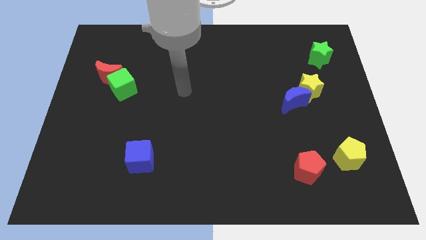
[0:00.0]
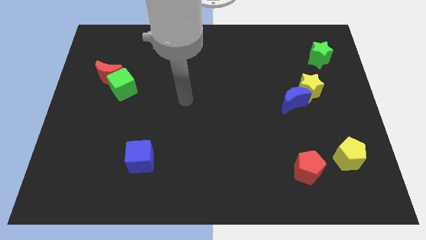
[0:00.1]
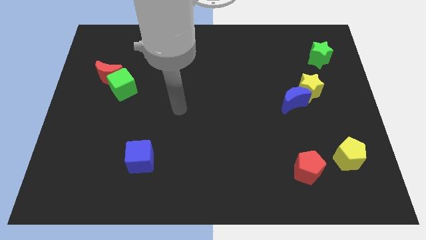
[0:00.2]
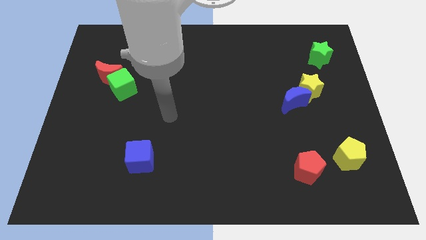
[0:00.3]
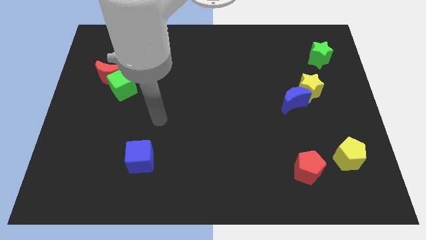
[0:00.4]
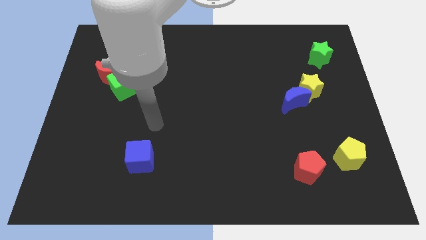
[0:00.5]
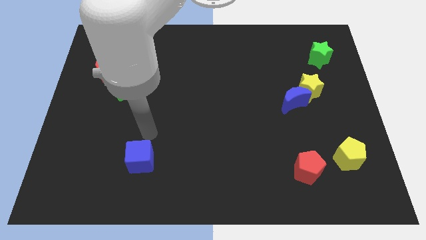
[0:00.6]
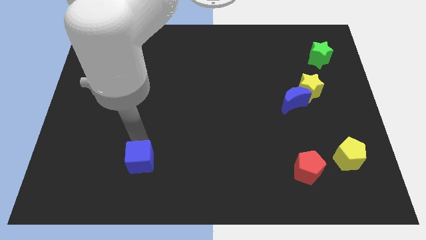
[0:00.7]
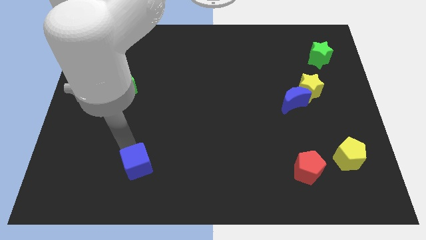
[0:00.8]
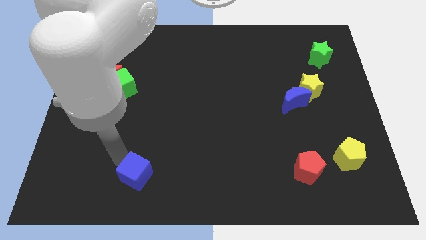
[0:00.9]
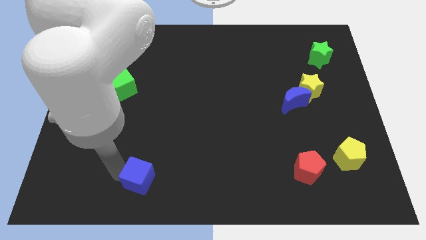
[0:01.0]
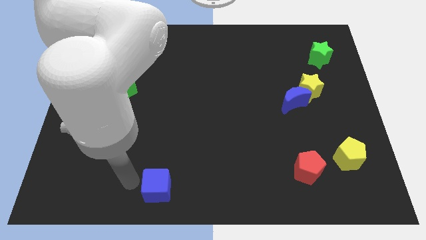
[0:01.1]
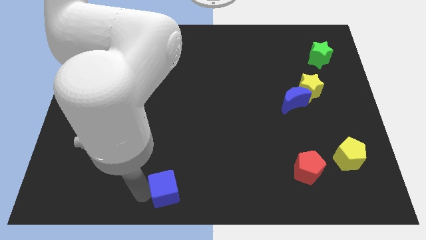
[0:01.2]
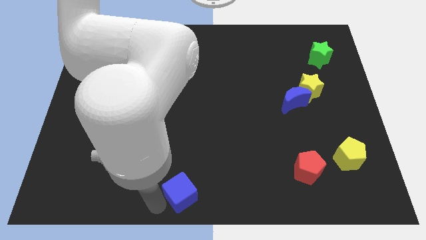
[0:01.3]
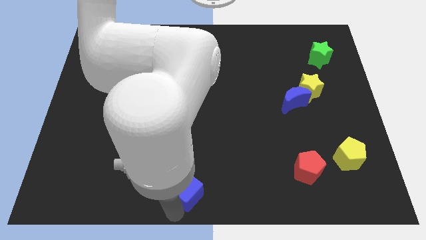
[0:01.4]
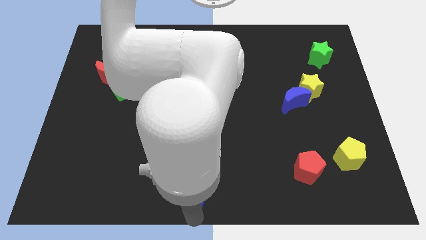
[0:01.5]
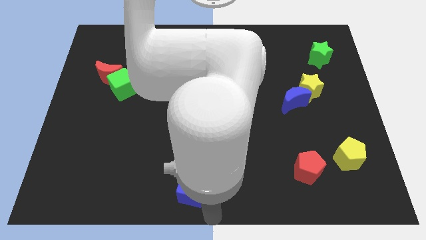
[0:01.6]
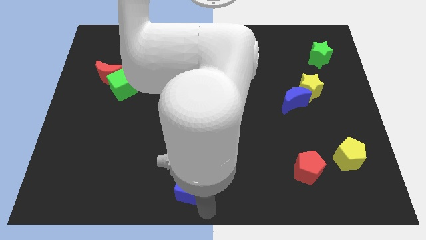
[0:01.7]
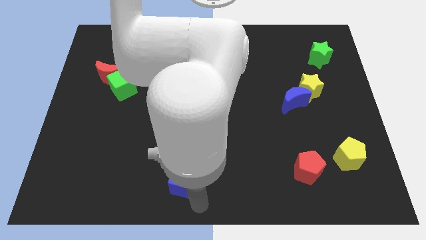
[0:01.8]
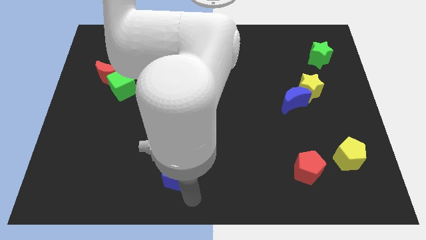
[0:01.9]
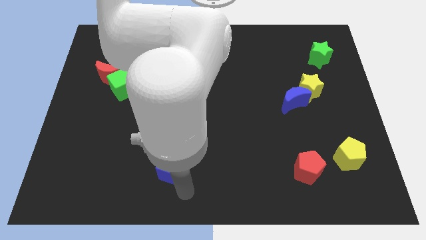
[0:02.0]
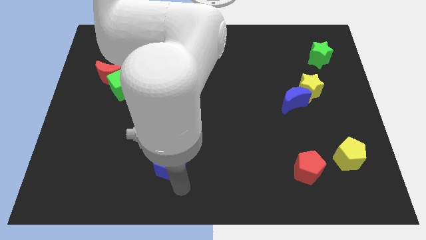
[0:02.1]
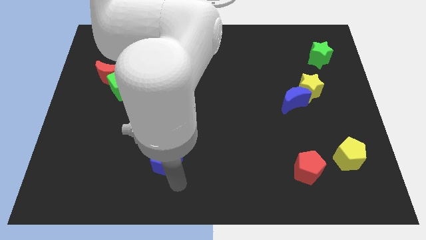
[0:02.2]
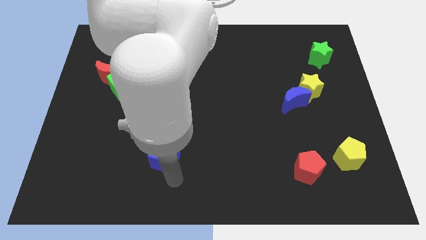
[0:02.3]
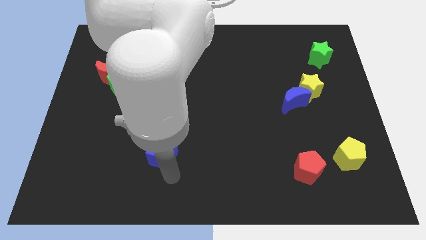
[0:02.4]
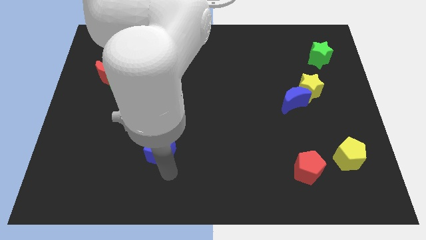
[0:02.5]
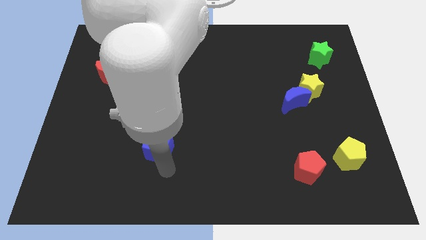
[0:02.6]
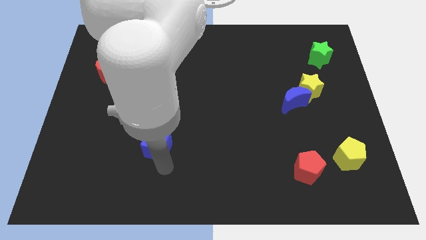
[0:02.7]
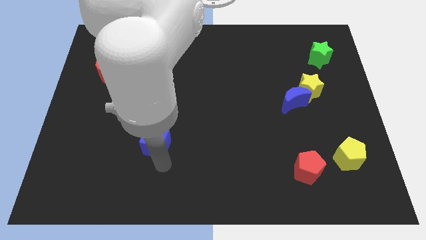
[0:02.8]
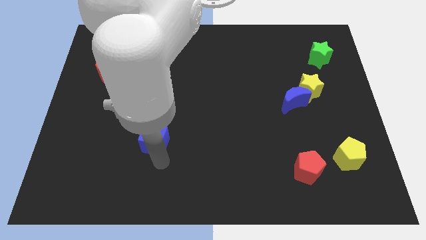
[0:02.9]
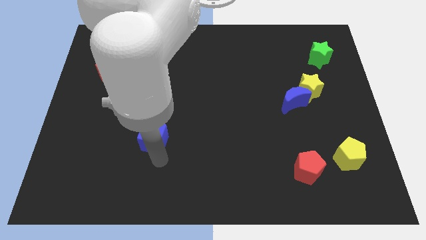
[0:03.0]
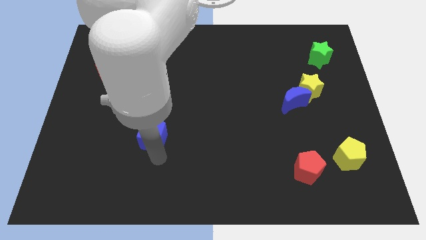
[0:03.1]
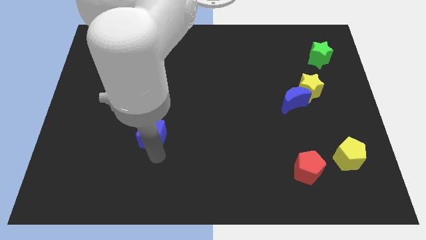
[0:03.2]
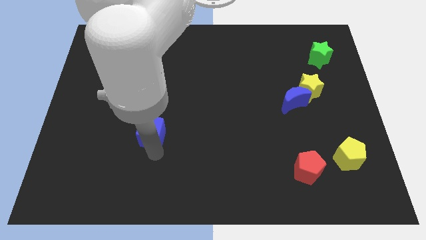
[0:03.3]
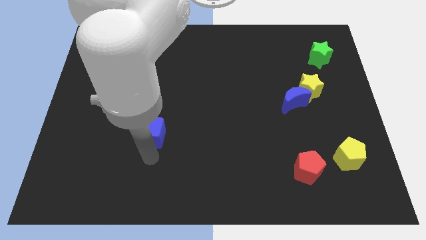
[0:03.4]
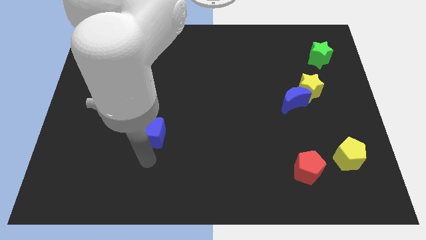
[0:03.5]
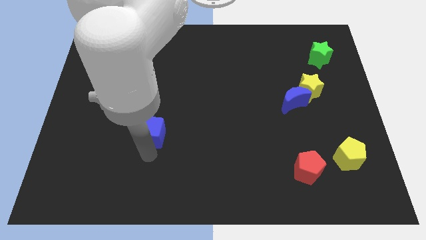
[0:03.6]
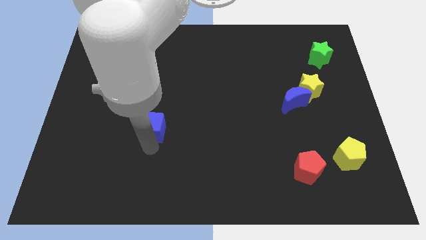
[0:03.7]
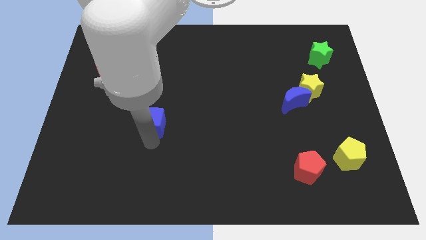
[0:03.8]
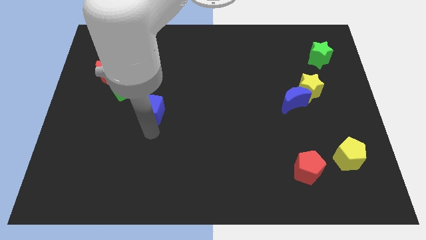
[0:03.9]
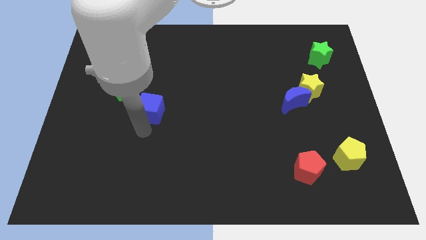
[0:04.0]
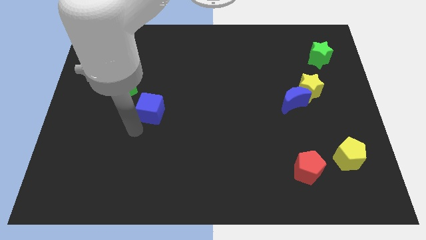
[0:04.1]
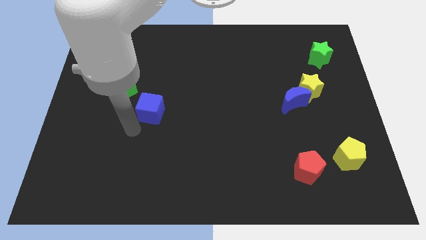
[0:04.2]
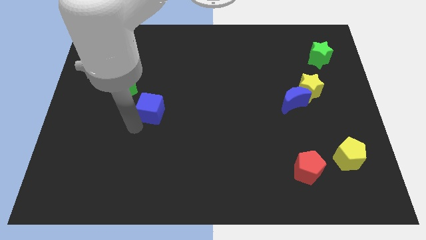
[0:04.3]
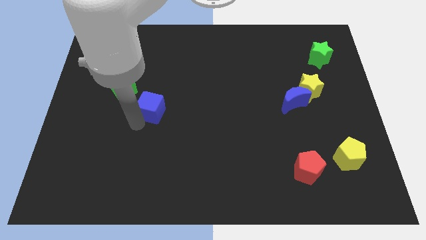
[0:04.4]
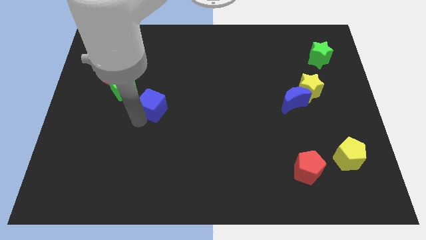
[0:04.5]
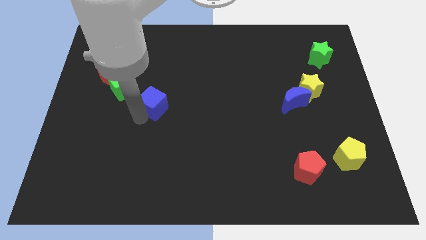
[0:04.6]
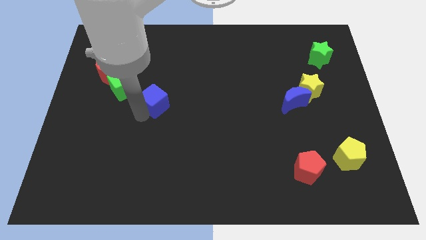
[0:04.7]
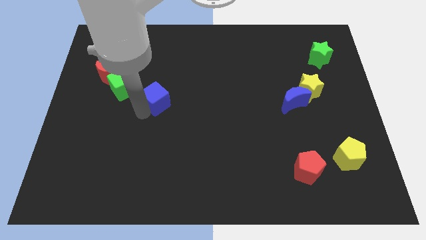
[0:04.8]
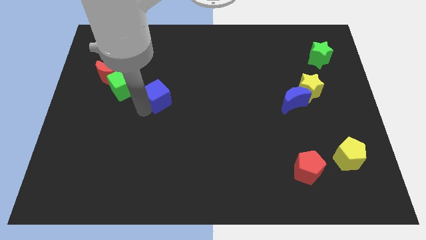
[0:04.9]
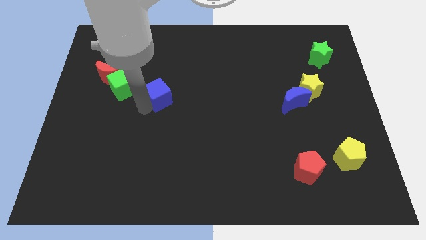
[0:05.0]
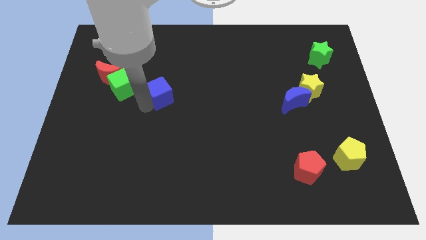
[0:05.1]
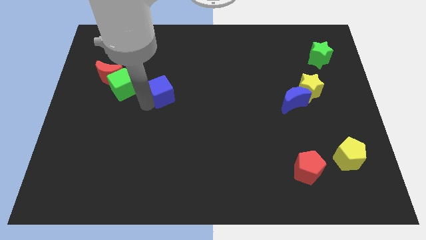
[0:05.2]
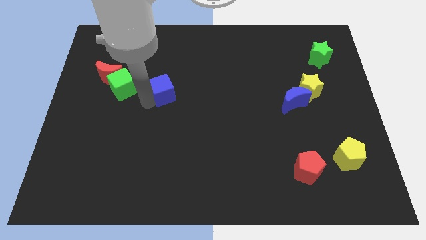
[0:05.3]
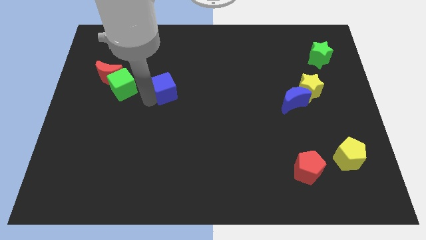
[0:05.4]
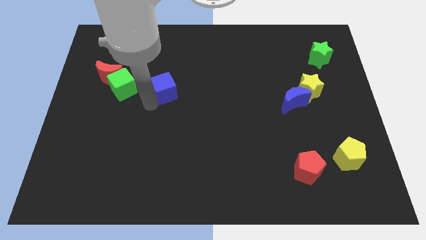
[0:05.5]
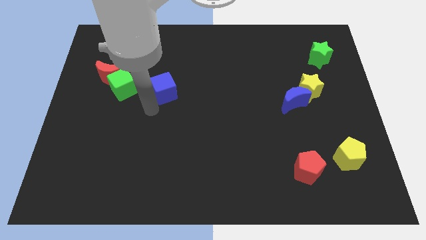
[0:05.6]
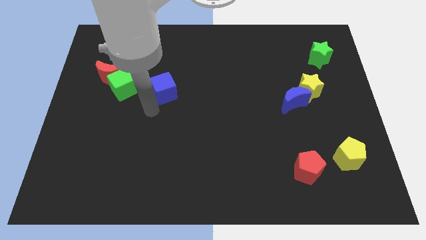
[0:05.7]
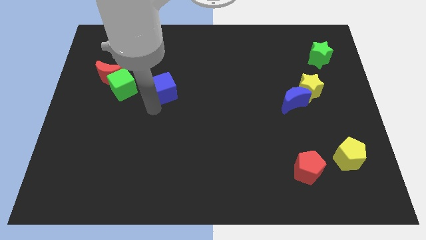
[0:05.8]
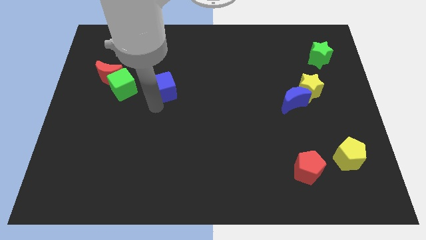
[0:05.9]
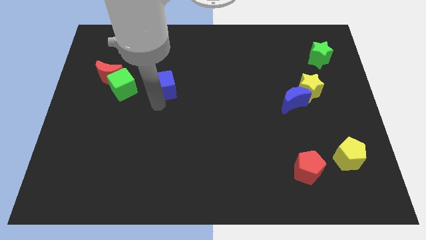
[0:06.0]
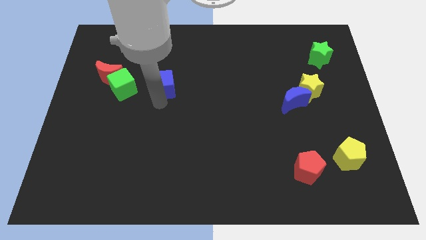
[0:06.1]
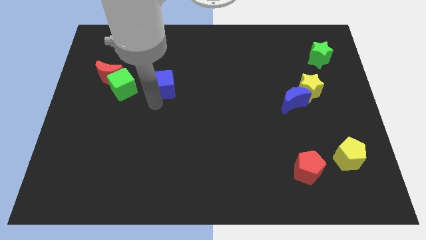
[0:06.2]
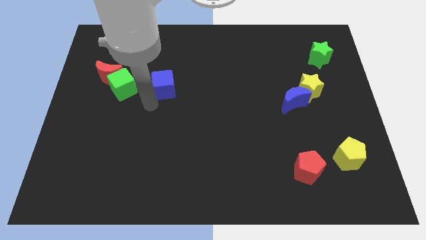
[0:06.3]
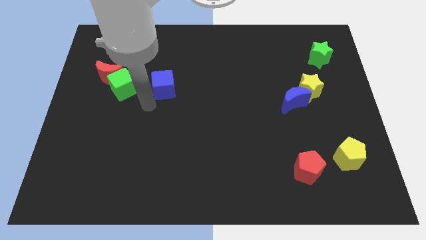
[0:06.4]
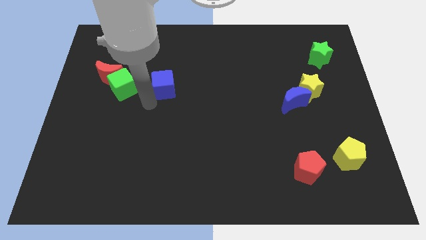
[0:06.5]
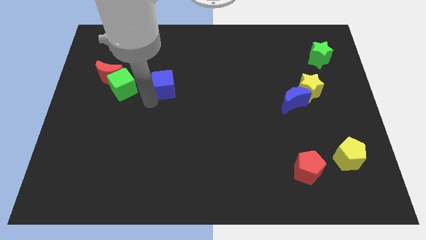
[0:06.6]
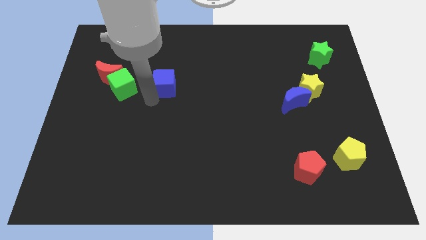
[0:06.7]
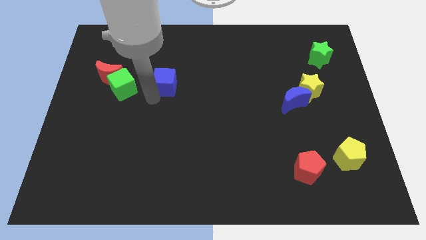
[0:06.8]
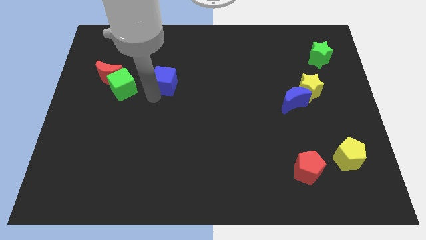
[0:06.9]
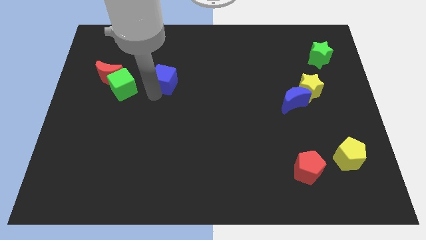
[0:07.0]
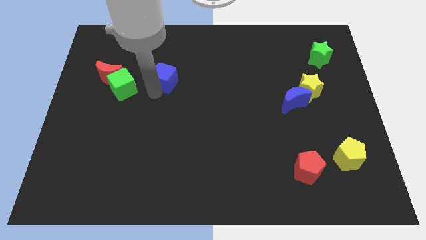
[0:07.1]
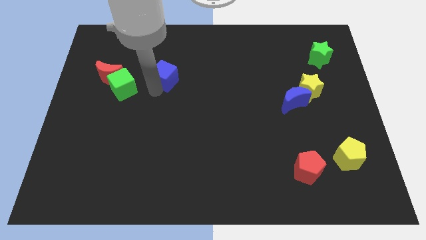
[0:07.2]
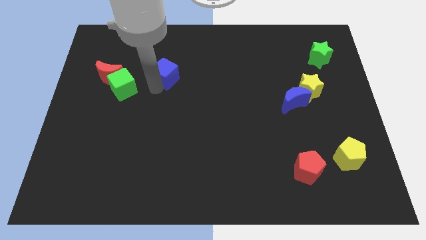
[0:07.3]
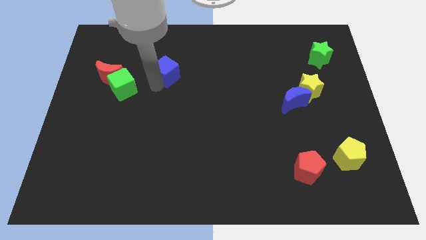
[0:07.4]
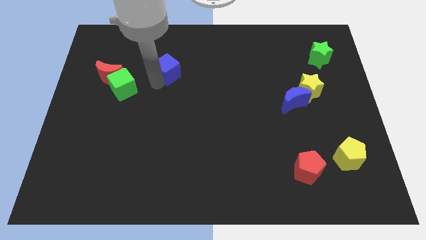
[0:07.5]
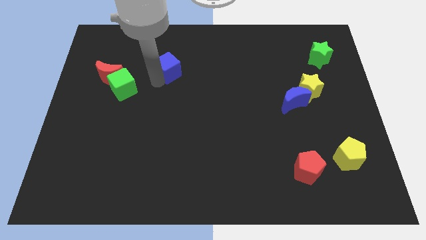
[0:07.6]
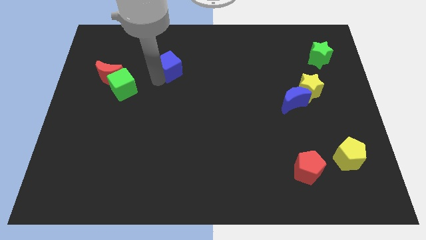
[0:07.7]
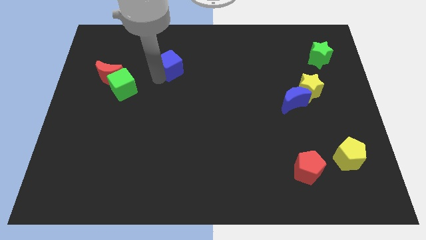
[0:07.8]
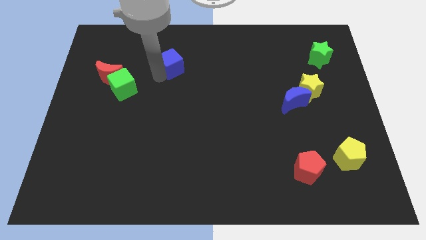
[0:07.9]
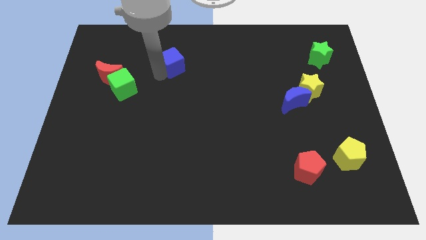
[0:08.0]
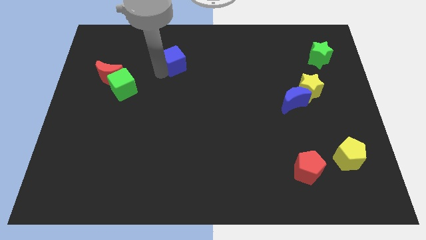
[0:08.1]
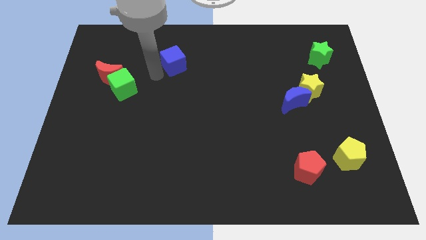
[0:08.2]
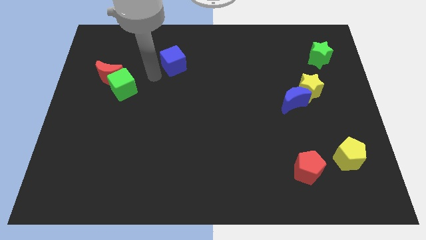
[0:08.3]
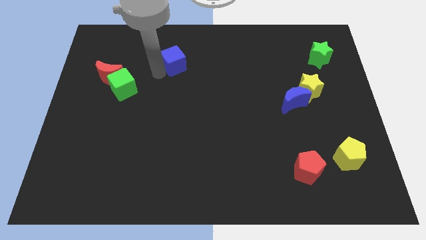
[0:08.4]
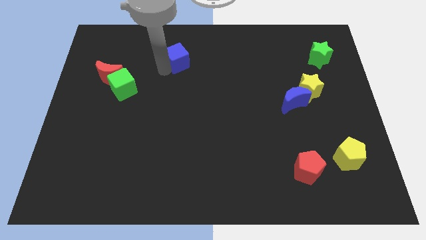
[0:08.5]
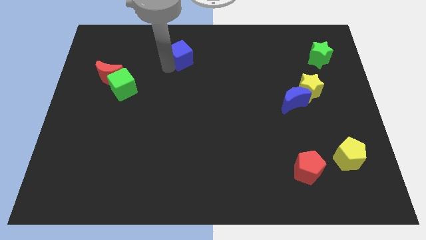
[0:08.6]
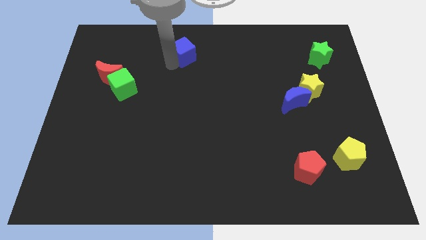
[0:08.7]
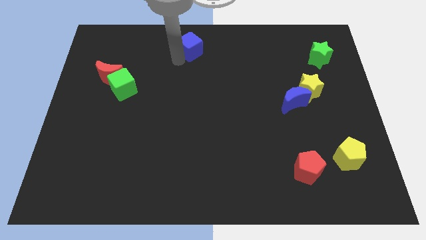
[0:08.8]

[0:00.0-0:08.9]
move the blue cube to the top
